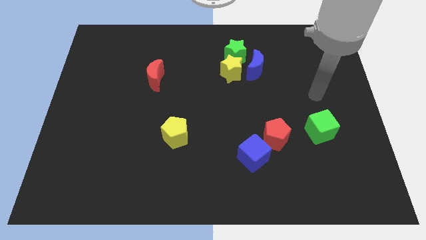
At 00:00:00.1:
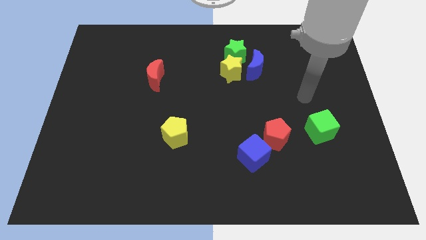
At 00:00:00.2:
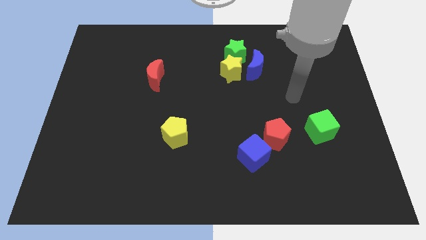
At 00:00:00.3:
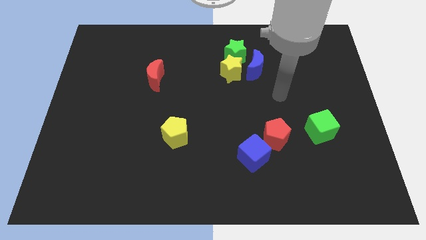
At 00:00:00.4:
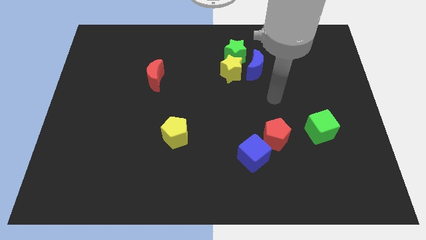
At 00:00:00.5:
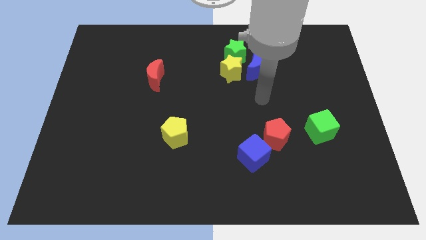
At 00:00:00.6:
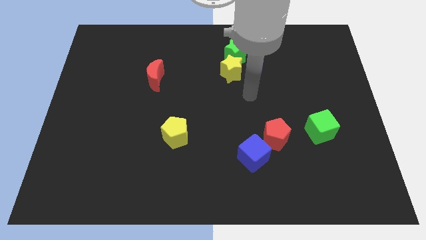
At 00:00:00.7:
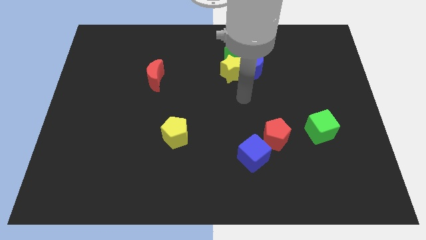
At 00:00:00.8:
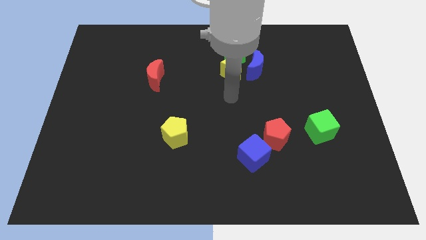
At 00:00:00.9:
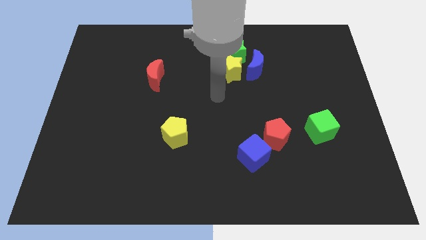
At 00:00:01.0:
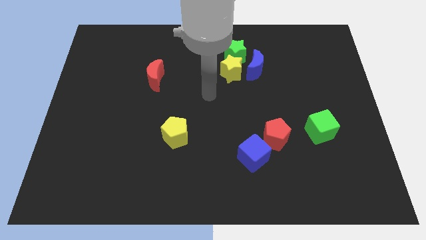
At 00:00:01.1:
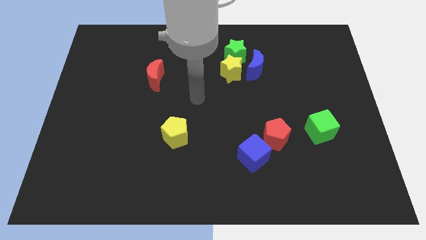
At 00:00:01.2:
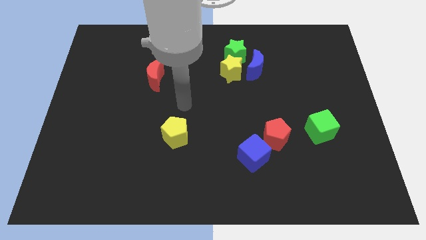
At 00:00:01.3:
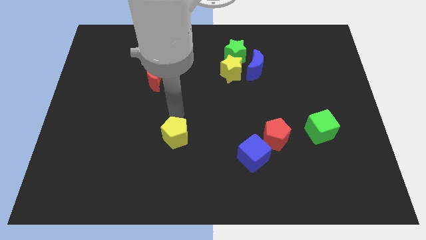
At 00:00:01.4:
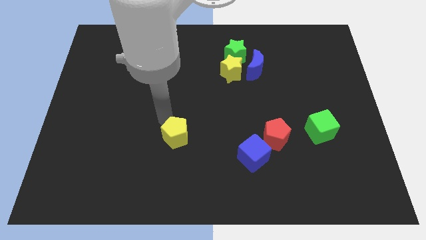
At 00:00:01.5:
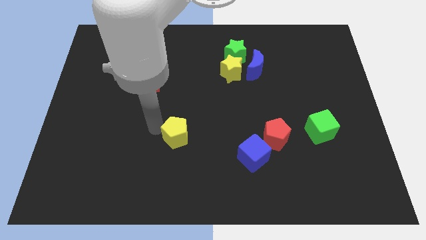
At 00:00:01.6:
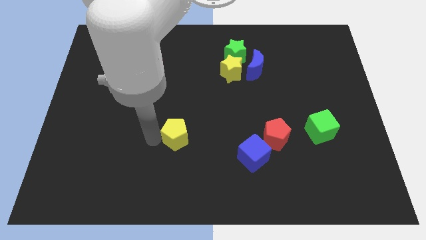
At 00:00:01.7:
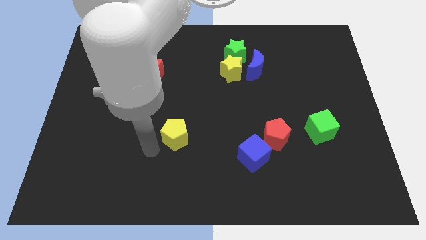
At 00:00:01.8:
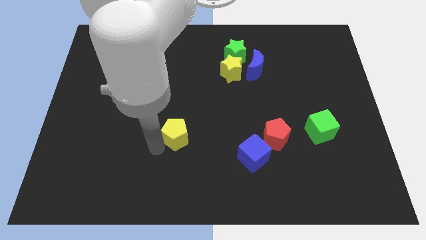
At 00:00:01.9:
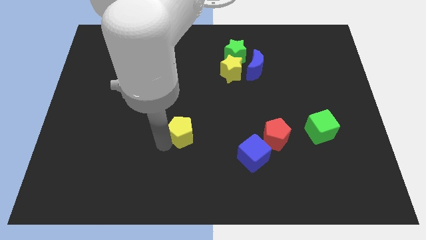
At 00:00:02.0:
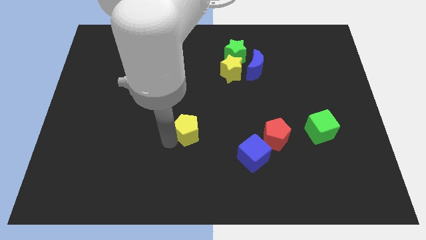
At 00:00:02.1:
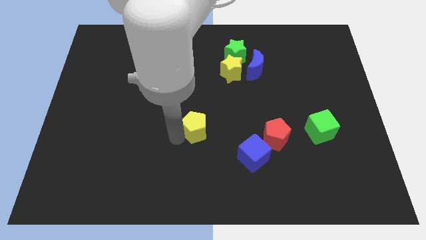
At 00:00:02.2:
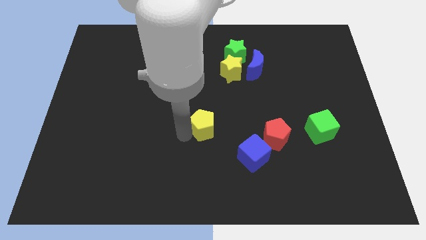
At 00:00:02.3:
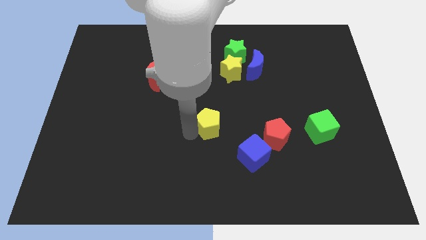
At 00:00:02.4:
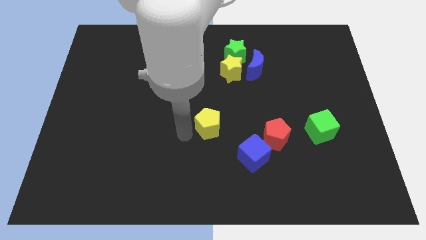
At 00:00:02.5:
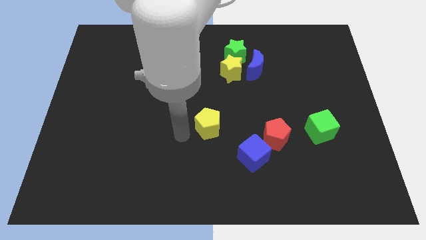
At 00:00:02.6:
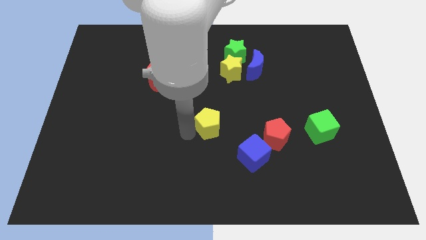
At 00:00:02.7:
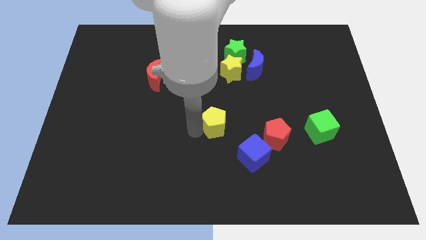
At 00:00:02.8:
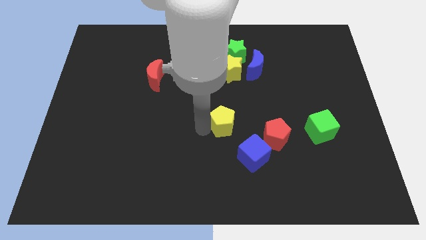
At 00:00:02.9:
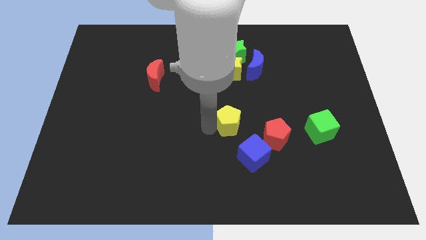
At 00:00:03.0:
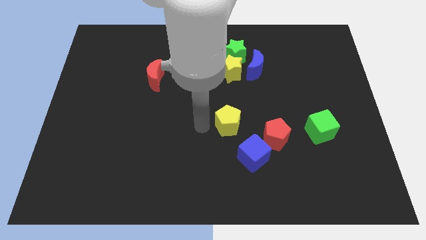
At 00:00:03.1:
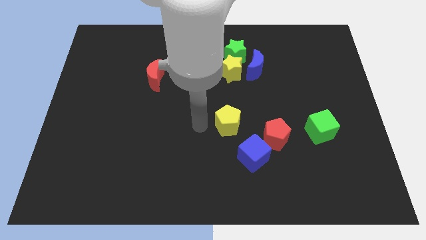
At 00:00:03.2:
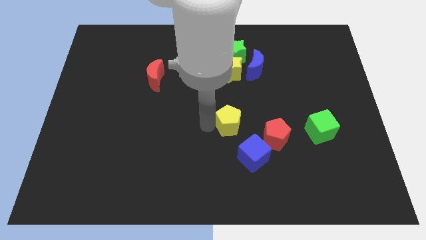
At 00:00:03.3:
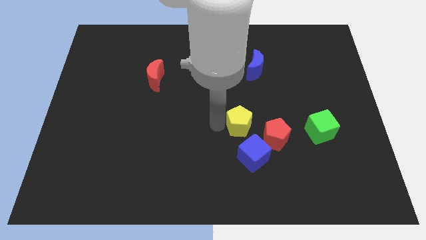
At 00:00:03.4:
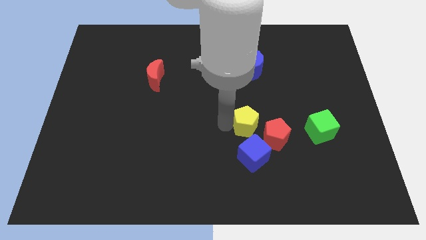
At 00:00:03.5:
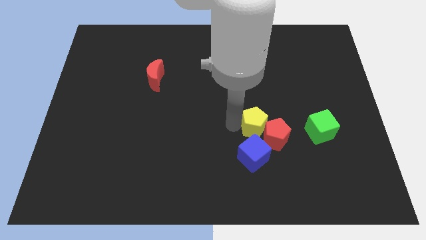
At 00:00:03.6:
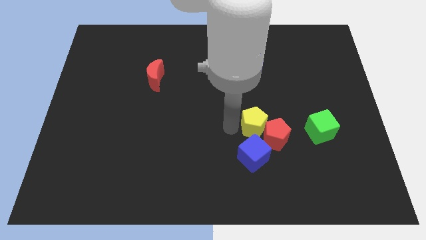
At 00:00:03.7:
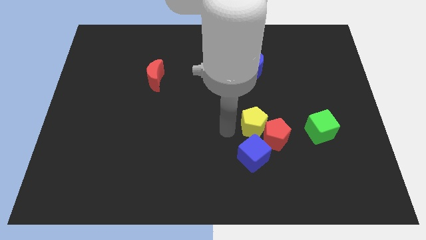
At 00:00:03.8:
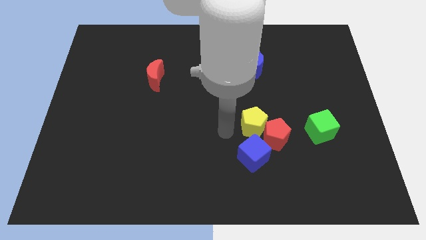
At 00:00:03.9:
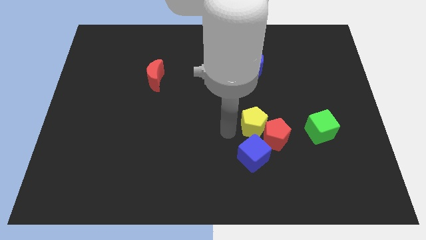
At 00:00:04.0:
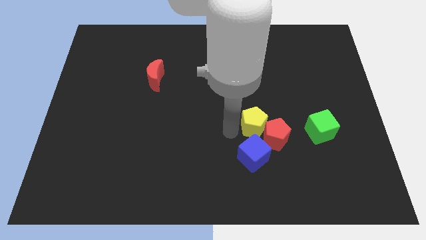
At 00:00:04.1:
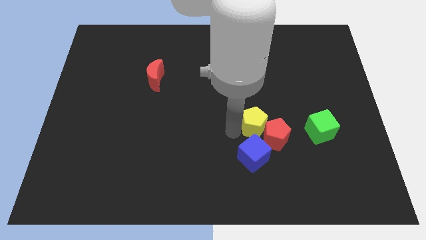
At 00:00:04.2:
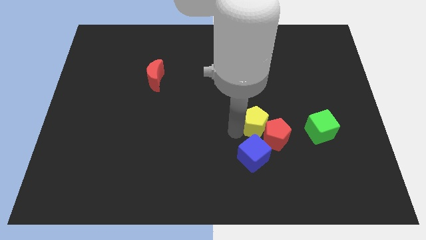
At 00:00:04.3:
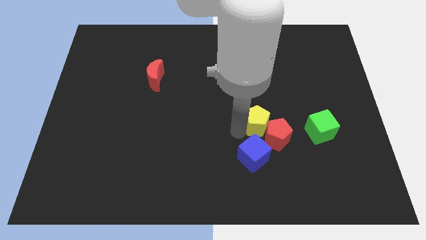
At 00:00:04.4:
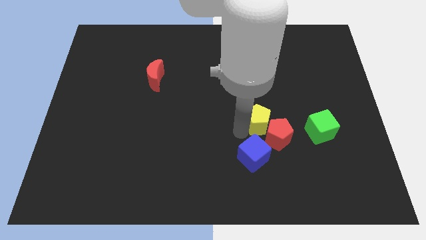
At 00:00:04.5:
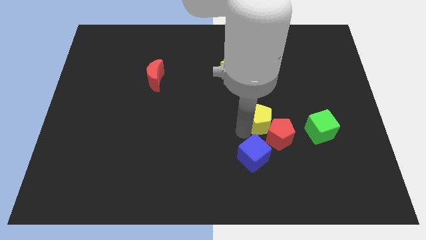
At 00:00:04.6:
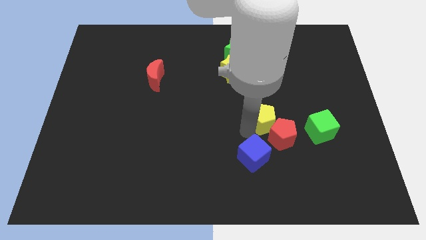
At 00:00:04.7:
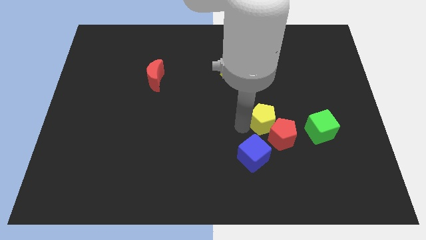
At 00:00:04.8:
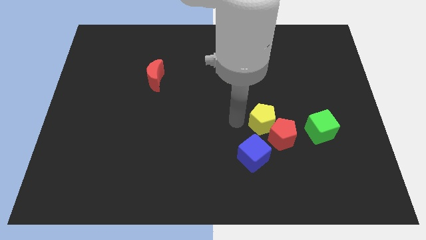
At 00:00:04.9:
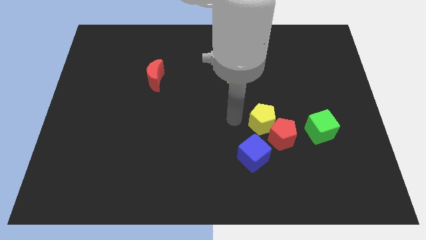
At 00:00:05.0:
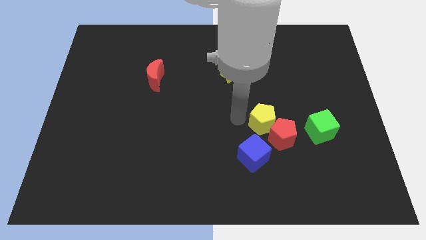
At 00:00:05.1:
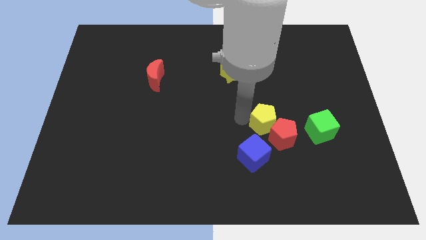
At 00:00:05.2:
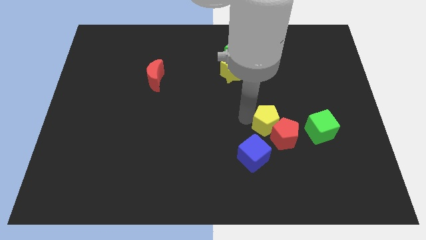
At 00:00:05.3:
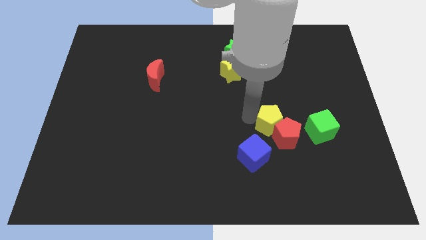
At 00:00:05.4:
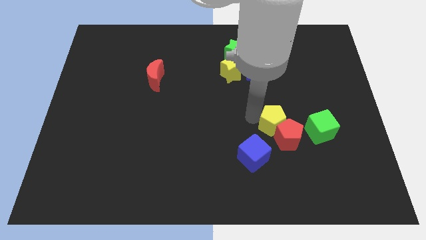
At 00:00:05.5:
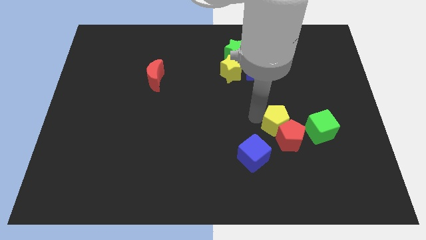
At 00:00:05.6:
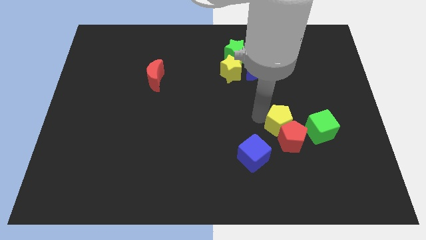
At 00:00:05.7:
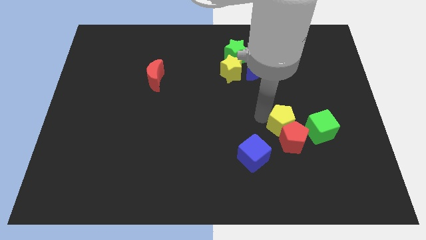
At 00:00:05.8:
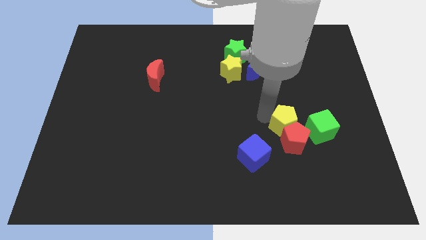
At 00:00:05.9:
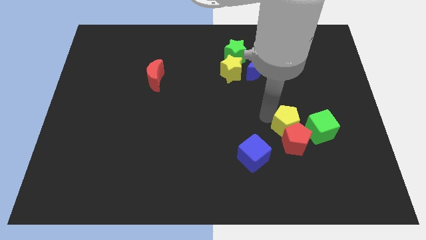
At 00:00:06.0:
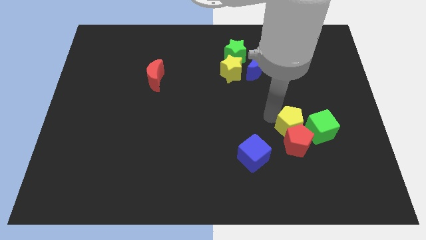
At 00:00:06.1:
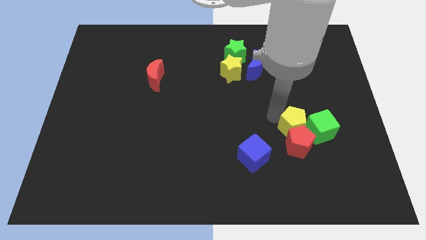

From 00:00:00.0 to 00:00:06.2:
move the yellow pentagon towards the green cube

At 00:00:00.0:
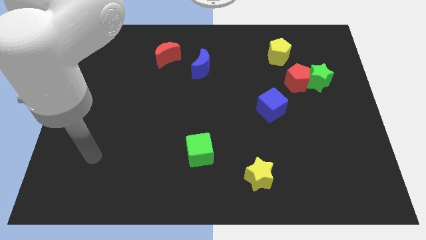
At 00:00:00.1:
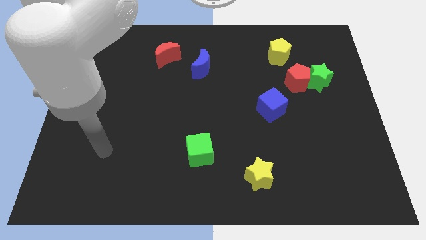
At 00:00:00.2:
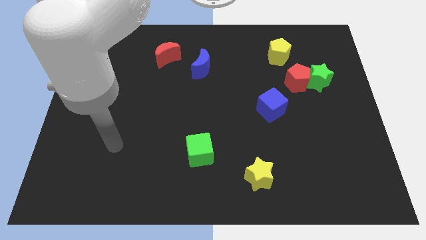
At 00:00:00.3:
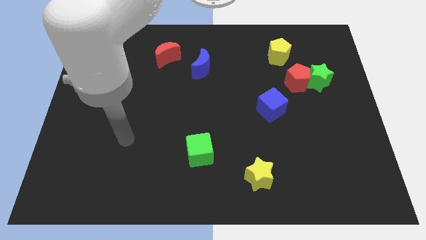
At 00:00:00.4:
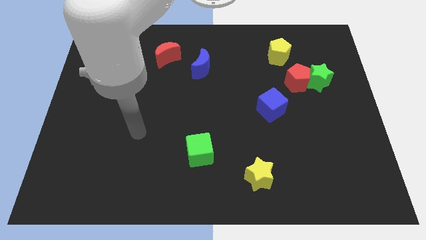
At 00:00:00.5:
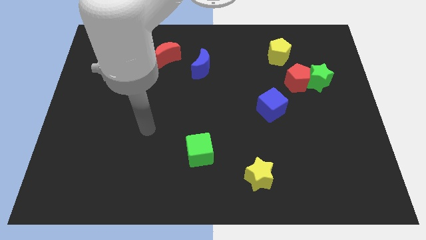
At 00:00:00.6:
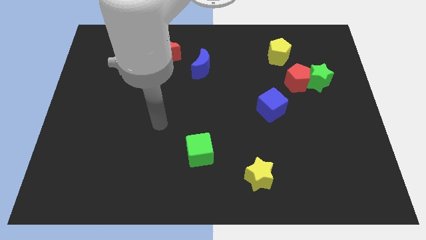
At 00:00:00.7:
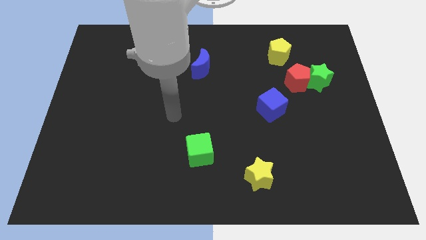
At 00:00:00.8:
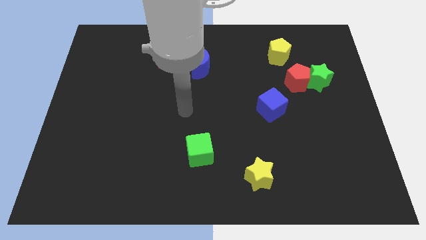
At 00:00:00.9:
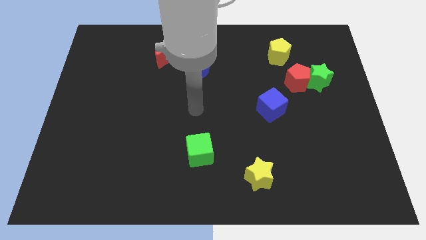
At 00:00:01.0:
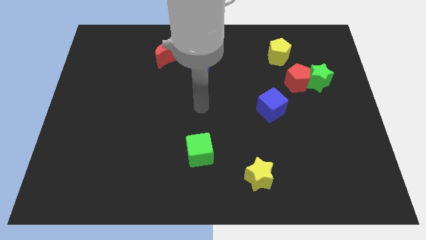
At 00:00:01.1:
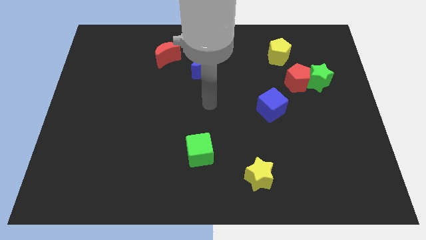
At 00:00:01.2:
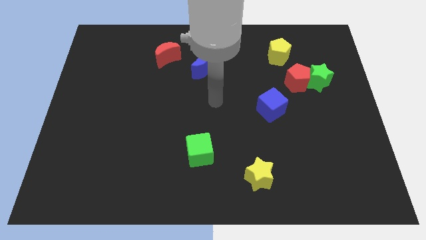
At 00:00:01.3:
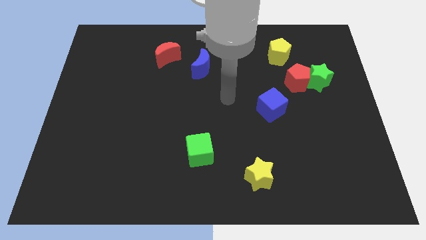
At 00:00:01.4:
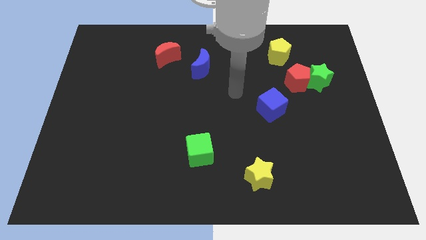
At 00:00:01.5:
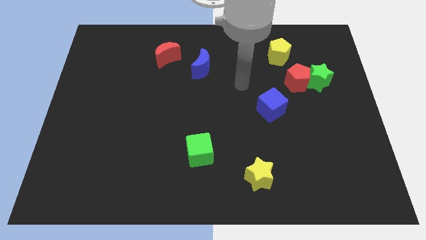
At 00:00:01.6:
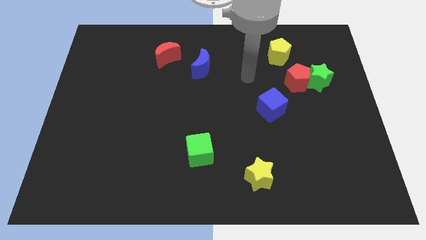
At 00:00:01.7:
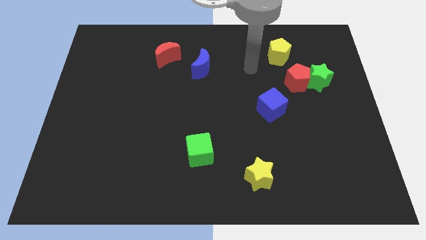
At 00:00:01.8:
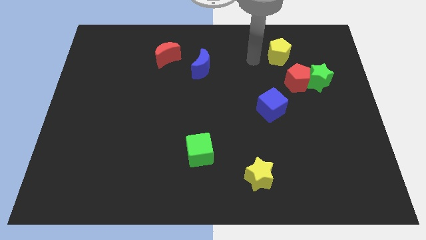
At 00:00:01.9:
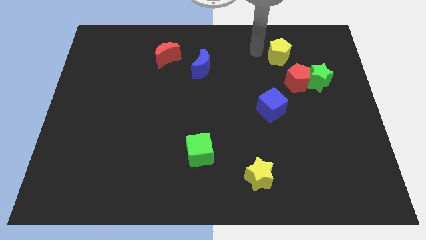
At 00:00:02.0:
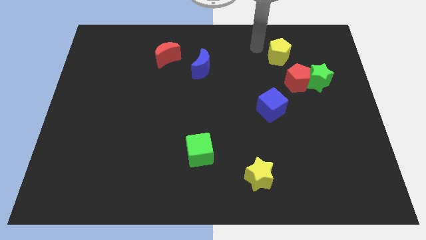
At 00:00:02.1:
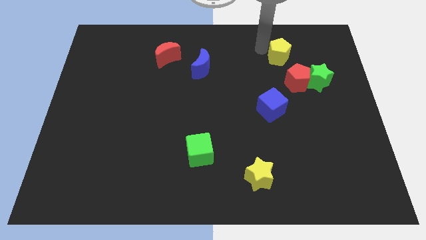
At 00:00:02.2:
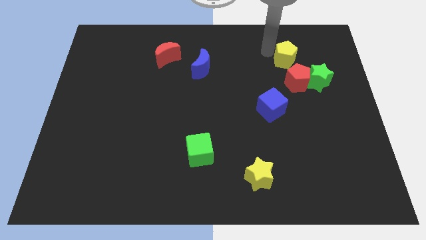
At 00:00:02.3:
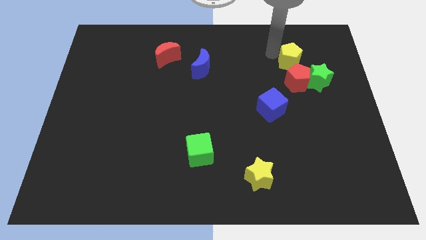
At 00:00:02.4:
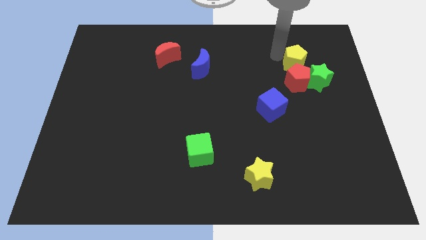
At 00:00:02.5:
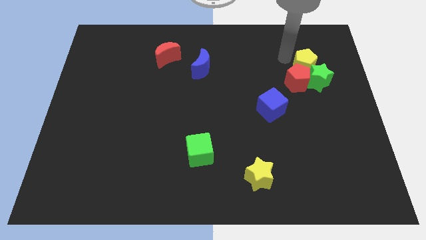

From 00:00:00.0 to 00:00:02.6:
put the yellow pentagon towards the green star
